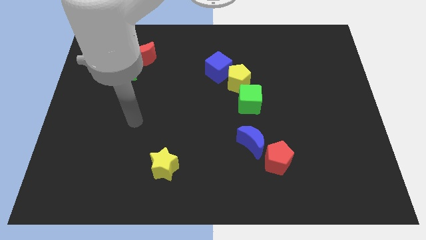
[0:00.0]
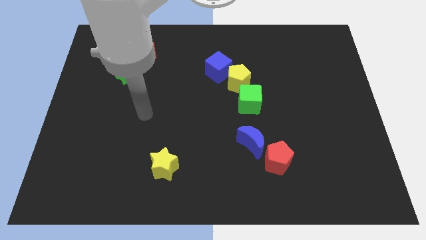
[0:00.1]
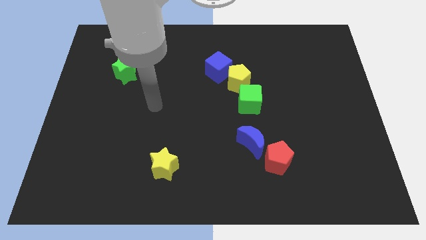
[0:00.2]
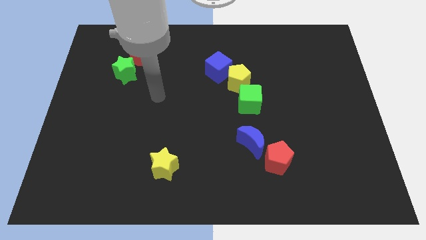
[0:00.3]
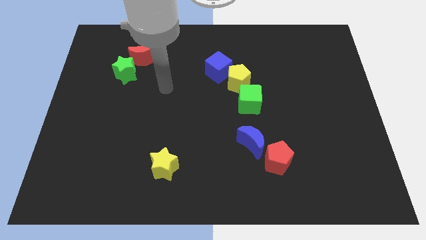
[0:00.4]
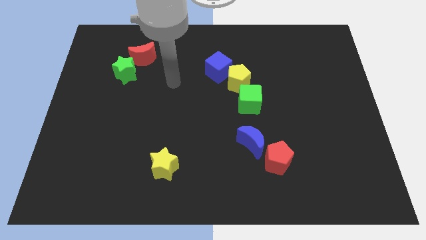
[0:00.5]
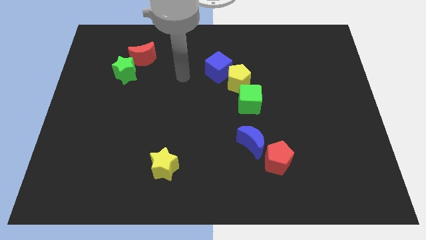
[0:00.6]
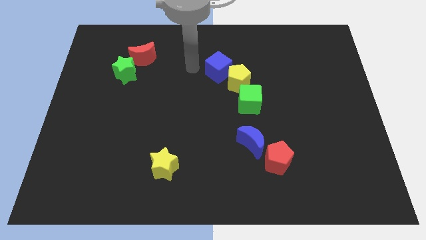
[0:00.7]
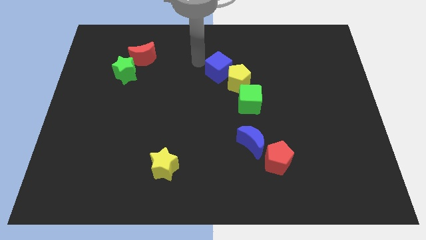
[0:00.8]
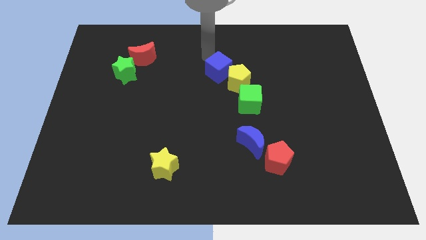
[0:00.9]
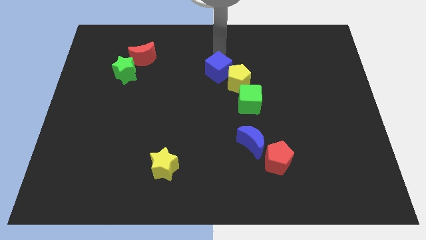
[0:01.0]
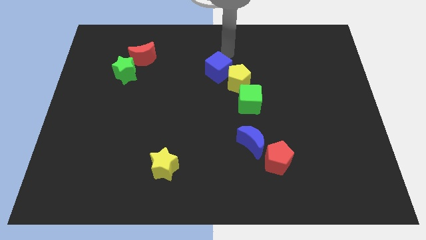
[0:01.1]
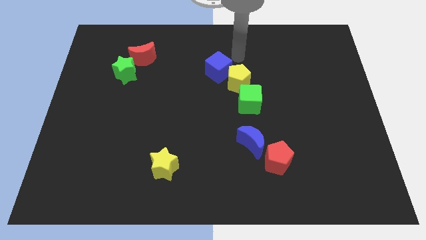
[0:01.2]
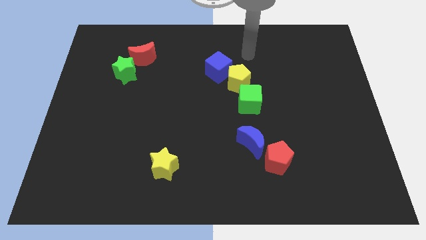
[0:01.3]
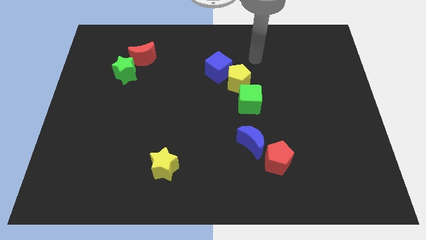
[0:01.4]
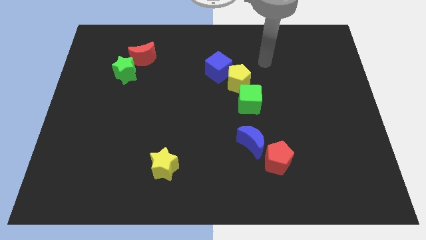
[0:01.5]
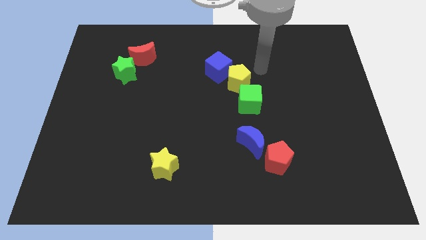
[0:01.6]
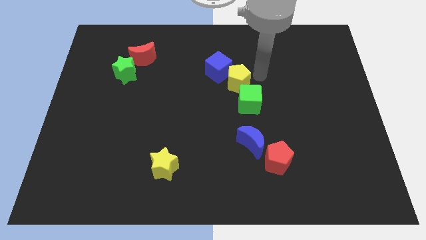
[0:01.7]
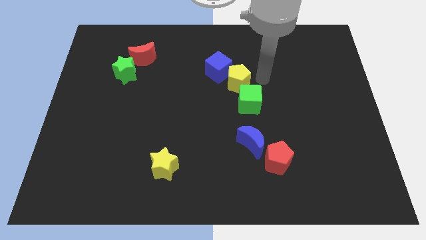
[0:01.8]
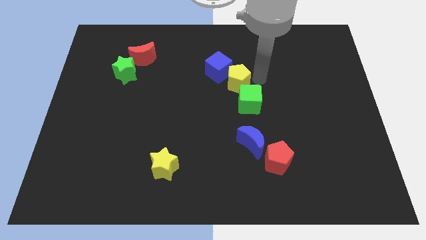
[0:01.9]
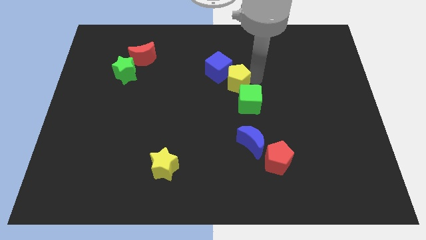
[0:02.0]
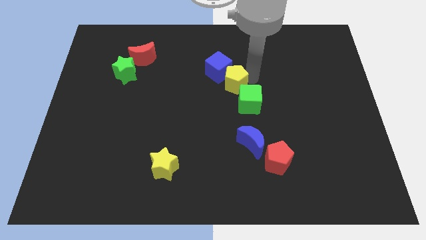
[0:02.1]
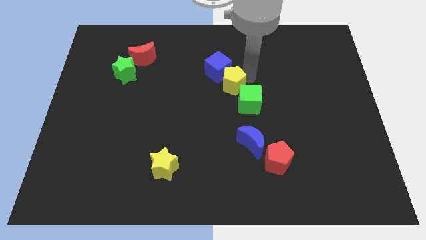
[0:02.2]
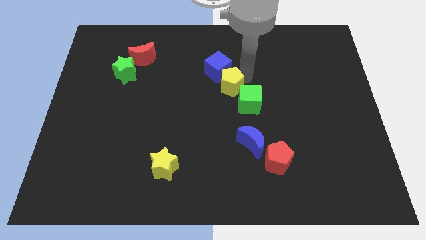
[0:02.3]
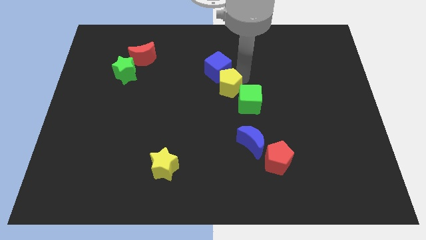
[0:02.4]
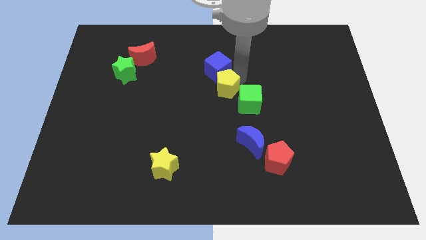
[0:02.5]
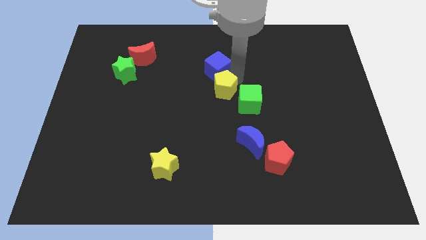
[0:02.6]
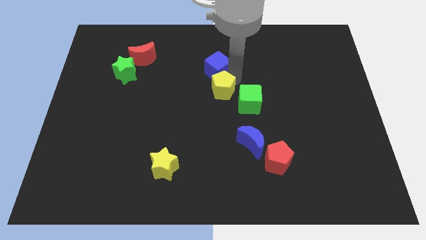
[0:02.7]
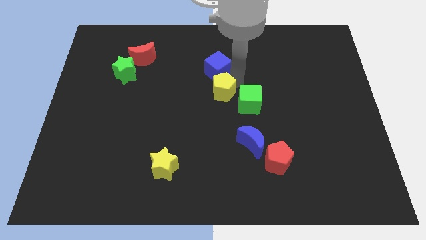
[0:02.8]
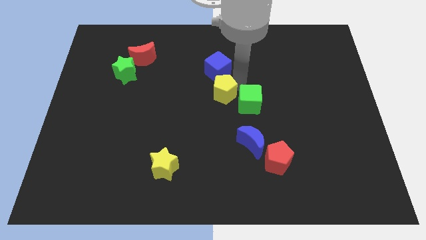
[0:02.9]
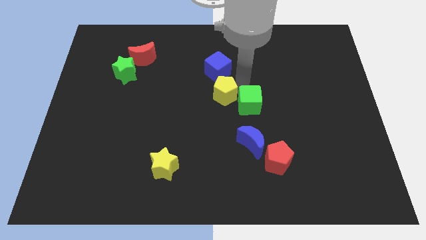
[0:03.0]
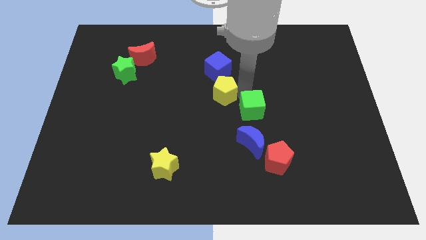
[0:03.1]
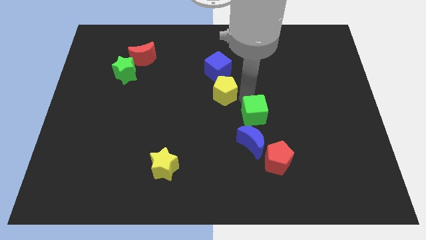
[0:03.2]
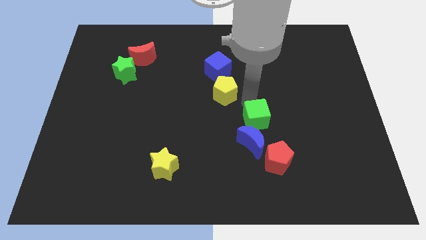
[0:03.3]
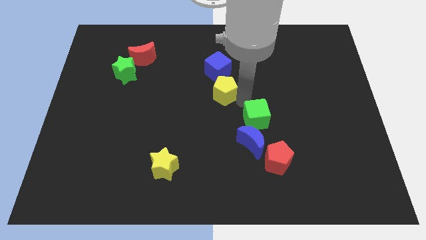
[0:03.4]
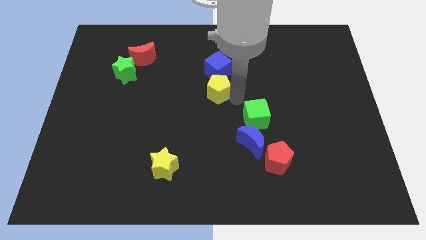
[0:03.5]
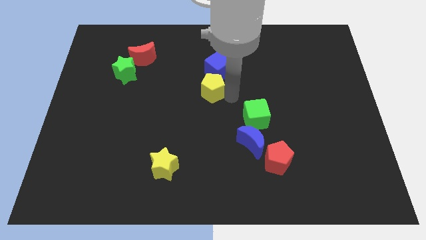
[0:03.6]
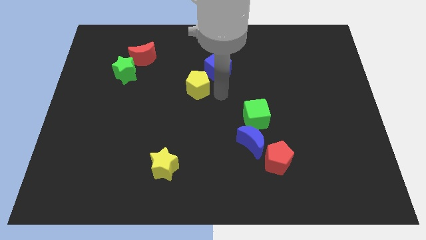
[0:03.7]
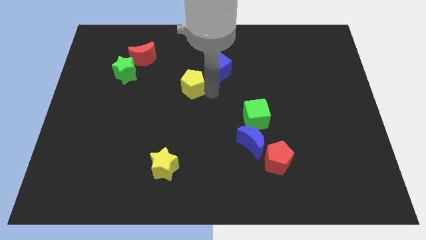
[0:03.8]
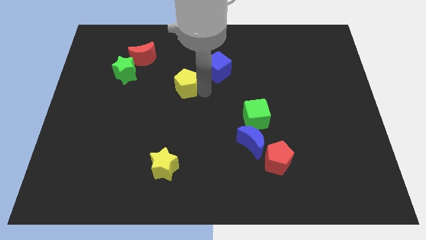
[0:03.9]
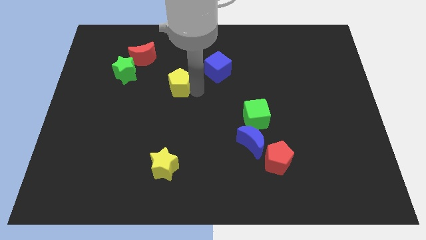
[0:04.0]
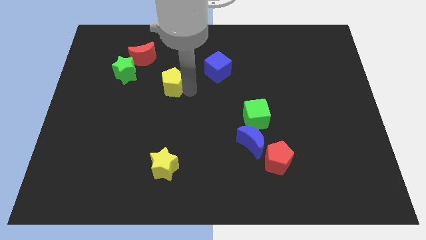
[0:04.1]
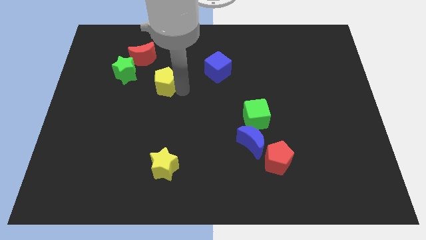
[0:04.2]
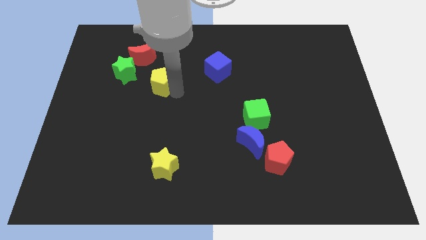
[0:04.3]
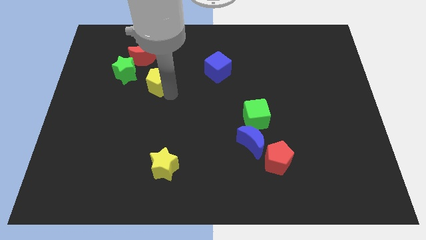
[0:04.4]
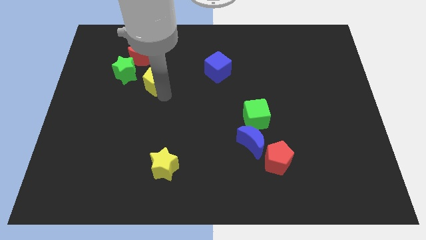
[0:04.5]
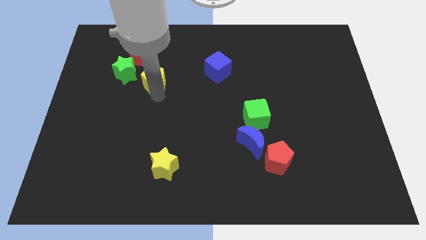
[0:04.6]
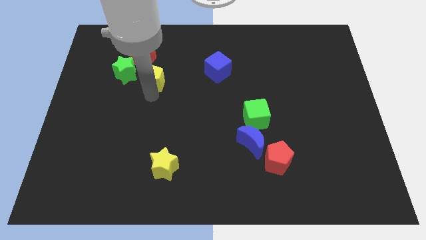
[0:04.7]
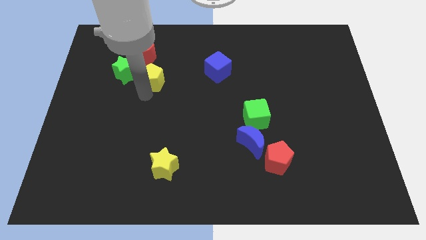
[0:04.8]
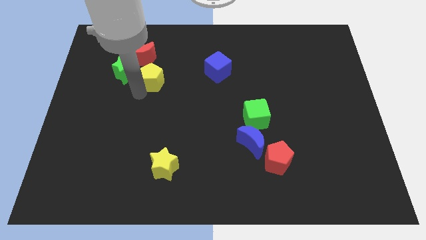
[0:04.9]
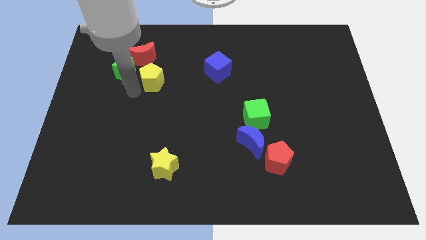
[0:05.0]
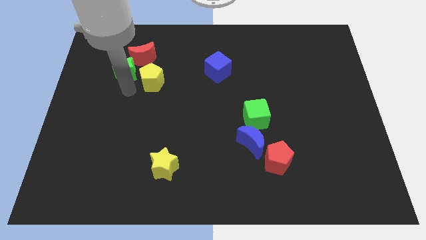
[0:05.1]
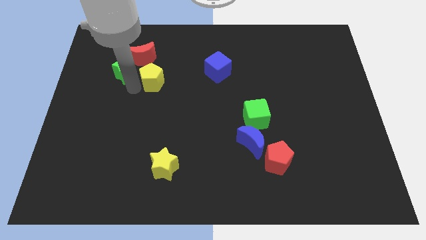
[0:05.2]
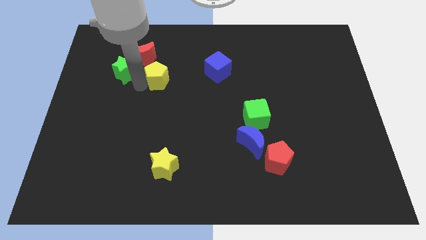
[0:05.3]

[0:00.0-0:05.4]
slide the yellow pentagon to the left of the blue cube

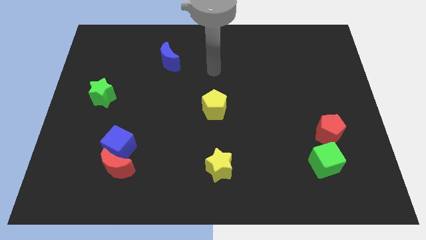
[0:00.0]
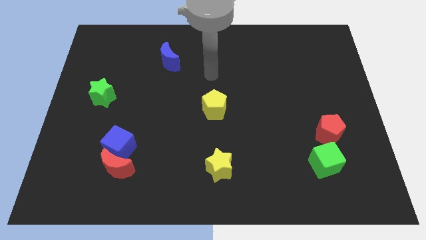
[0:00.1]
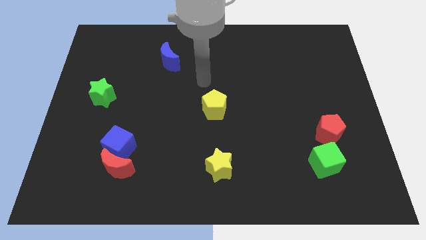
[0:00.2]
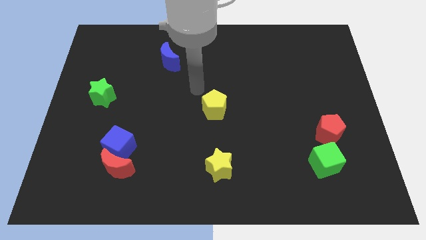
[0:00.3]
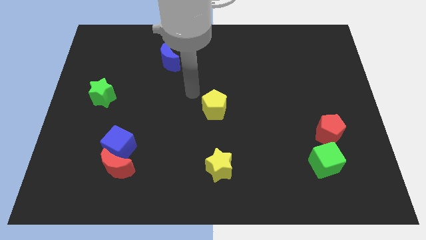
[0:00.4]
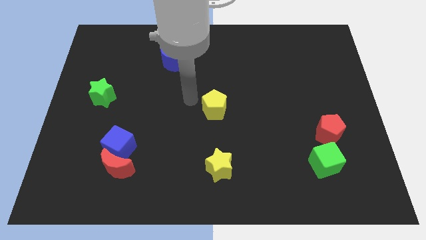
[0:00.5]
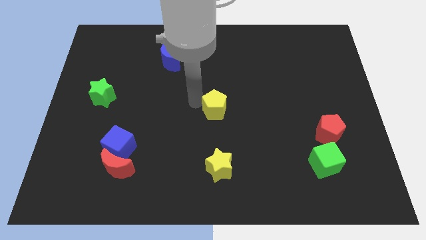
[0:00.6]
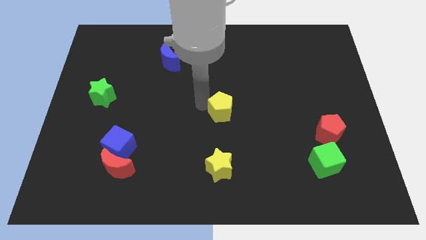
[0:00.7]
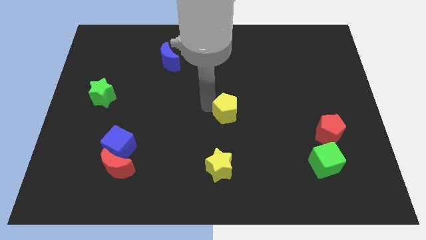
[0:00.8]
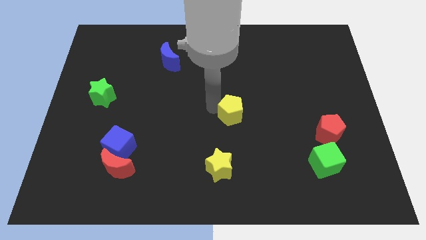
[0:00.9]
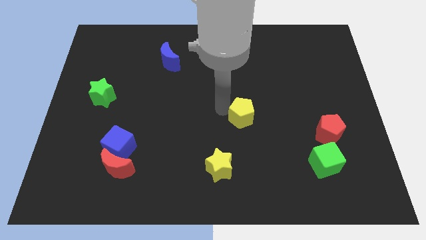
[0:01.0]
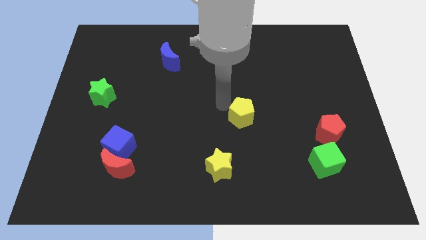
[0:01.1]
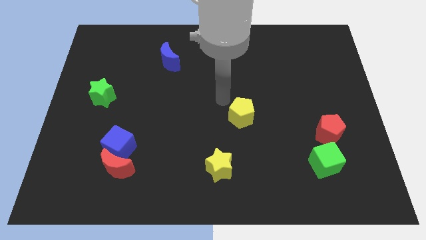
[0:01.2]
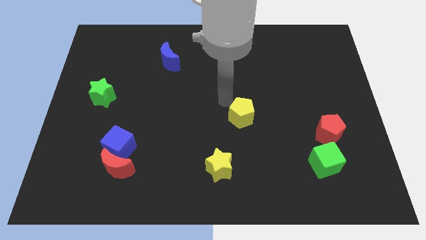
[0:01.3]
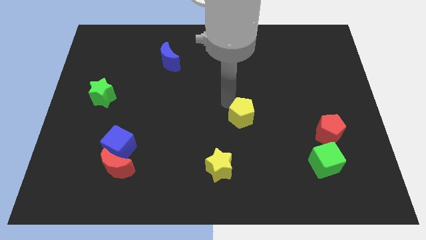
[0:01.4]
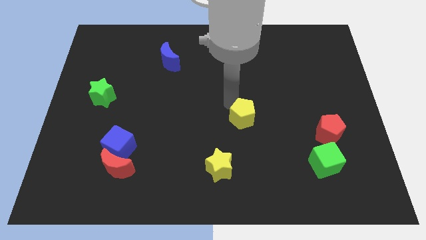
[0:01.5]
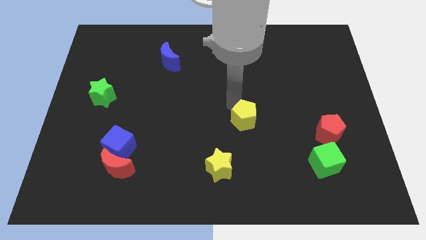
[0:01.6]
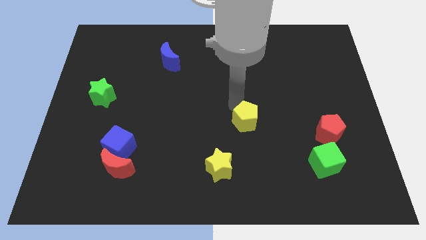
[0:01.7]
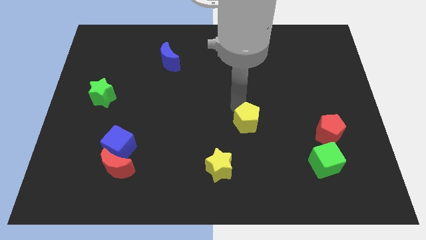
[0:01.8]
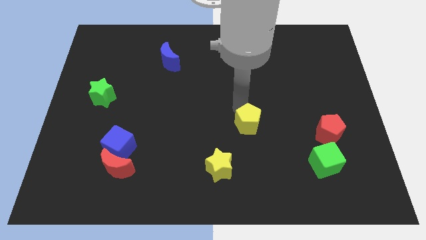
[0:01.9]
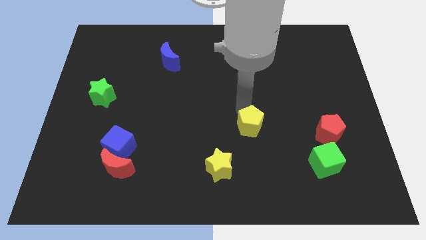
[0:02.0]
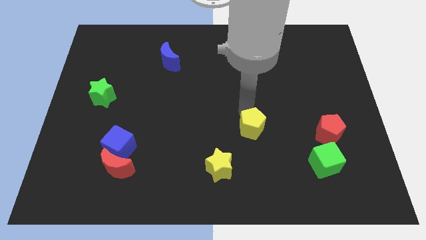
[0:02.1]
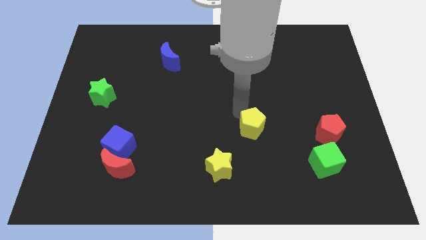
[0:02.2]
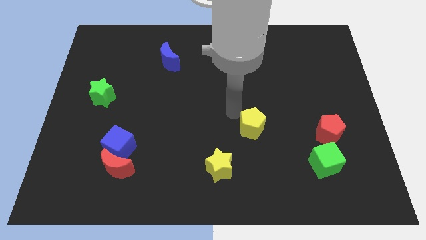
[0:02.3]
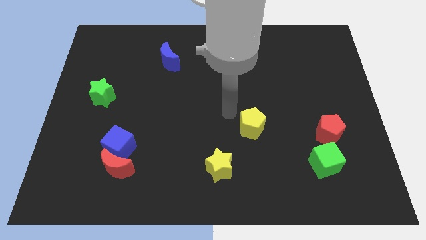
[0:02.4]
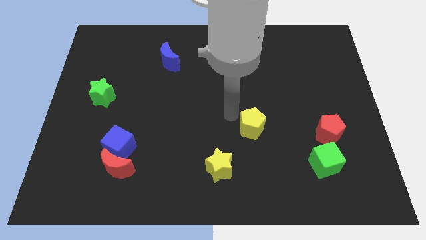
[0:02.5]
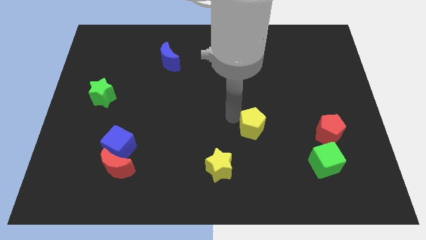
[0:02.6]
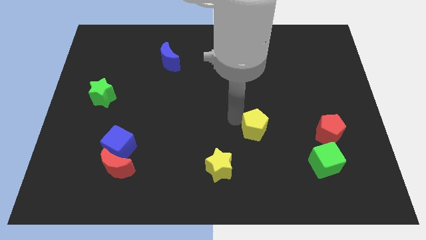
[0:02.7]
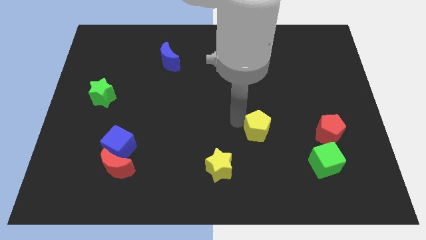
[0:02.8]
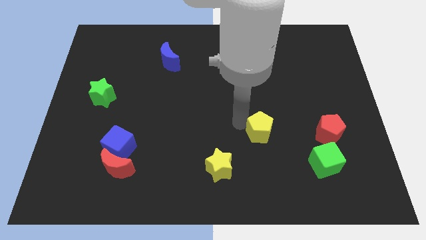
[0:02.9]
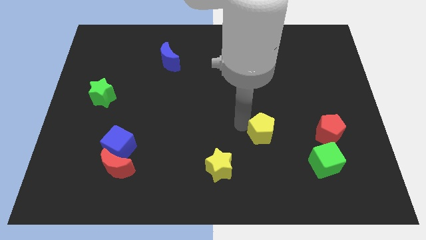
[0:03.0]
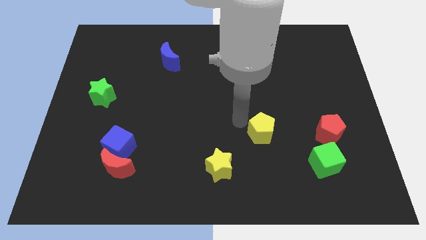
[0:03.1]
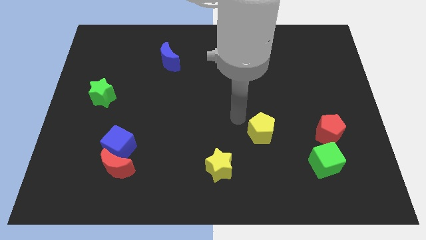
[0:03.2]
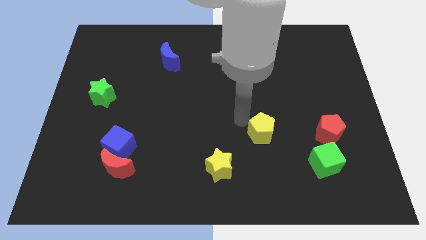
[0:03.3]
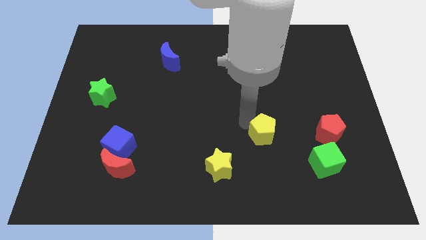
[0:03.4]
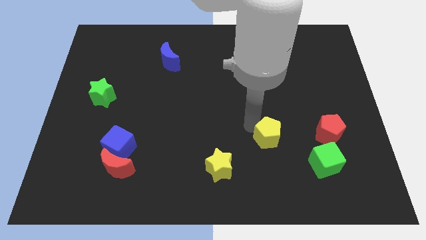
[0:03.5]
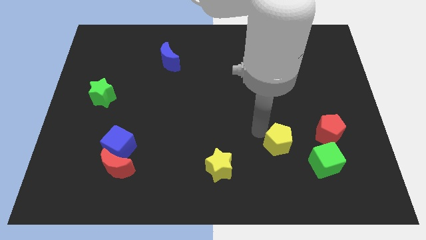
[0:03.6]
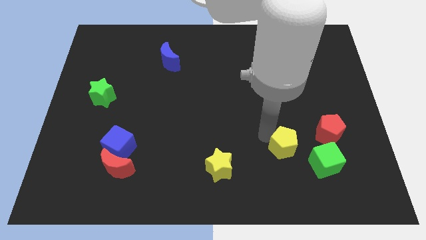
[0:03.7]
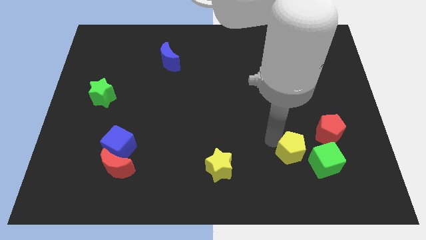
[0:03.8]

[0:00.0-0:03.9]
put the yellow pentagon to the bottom left of the red pentagon
